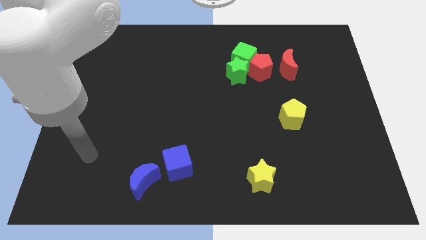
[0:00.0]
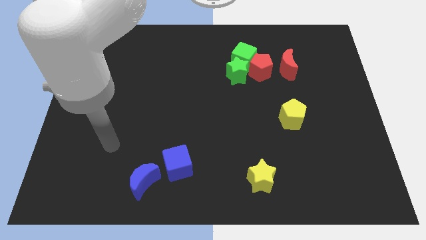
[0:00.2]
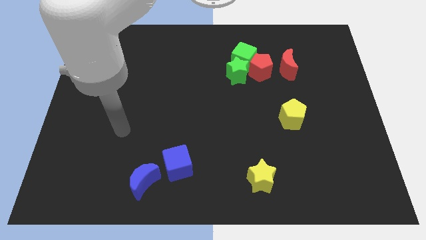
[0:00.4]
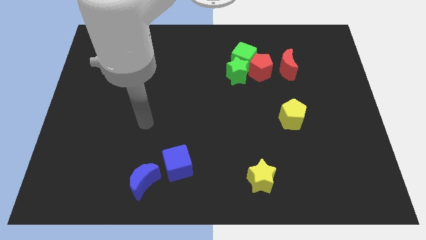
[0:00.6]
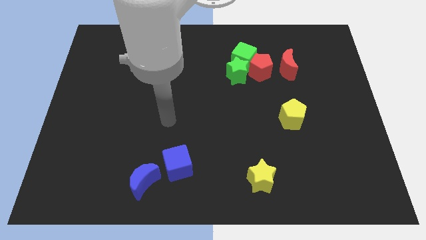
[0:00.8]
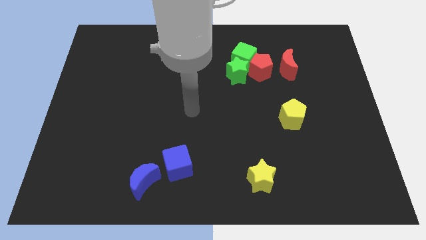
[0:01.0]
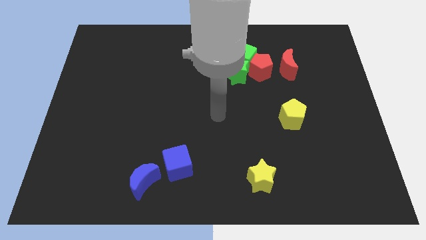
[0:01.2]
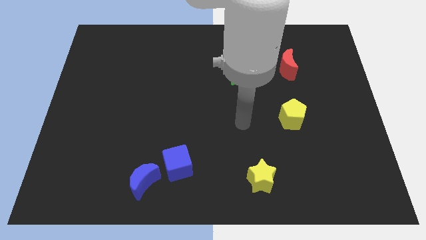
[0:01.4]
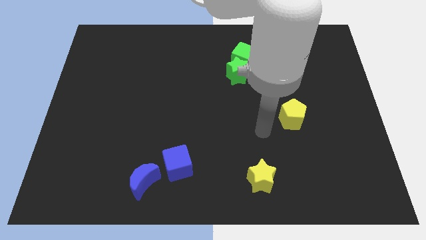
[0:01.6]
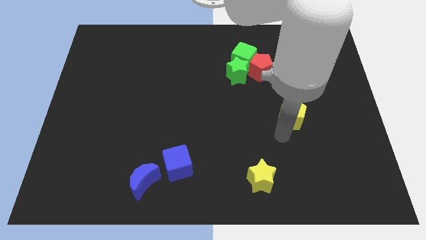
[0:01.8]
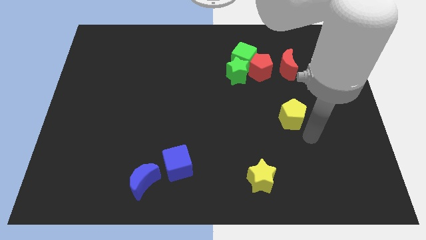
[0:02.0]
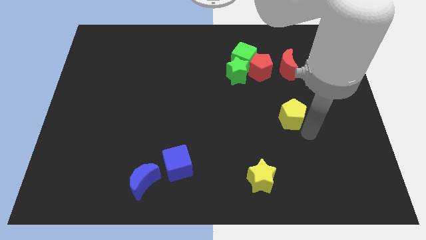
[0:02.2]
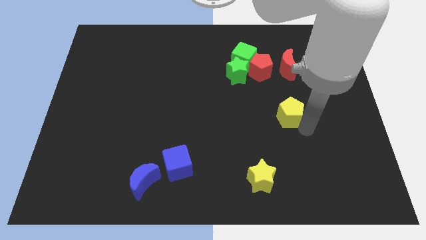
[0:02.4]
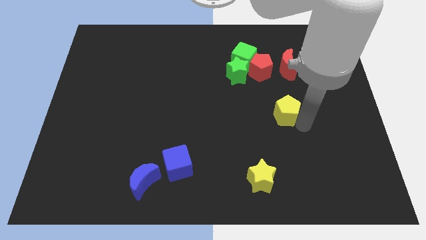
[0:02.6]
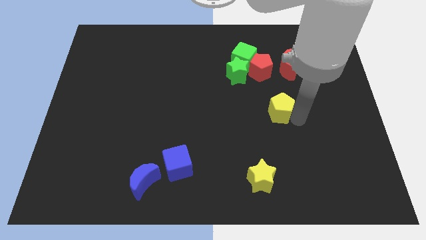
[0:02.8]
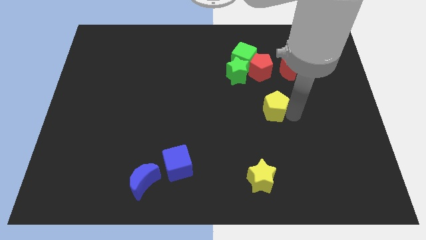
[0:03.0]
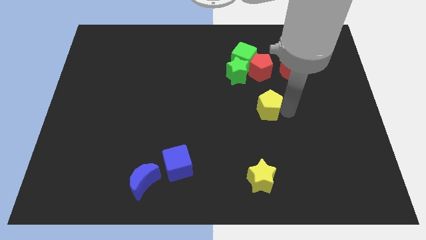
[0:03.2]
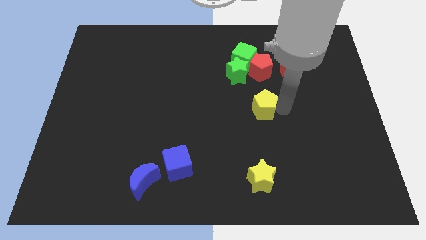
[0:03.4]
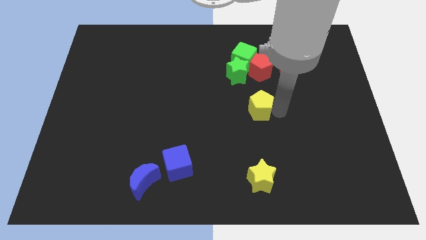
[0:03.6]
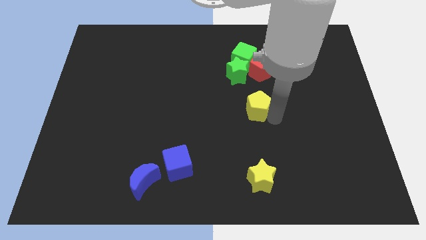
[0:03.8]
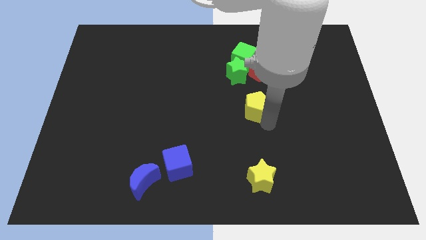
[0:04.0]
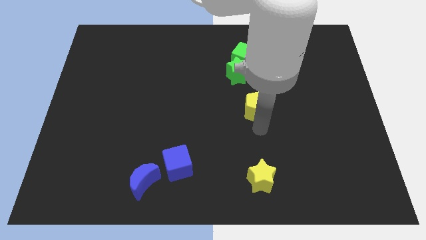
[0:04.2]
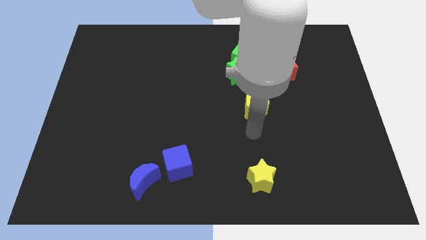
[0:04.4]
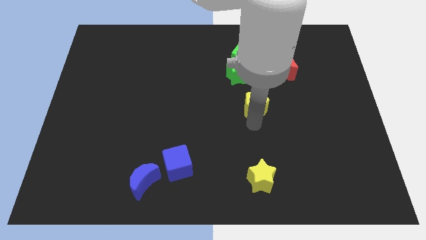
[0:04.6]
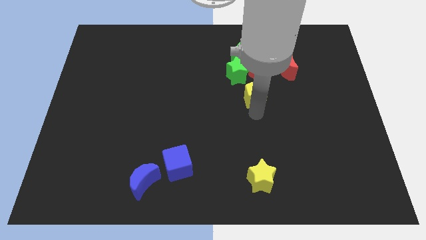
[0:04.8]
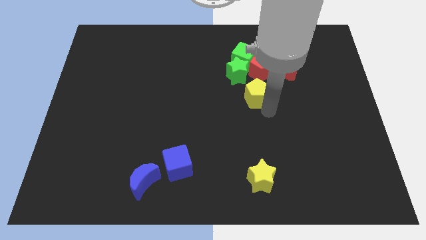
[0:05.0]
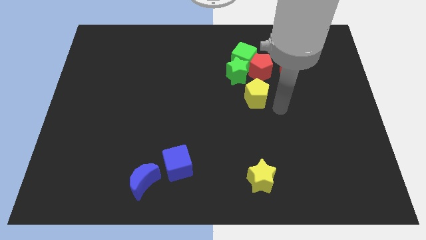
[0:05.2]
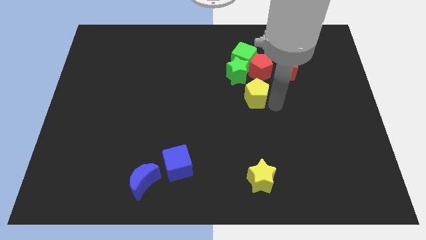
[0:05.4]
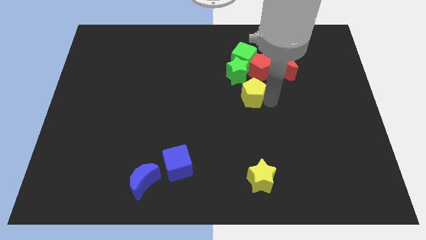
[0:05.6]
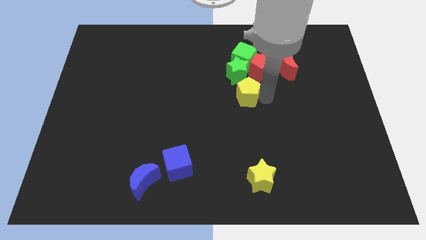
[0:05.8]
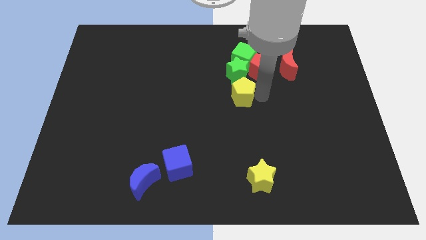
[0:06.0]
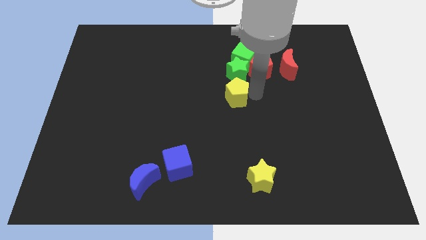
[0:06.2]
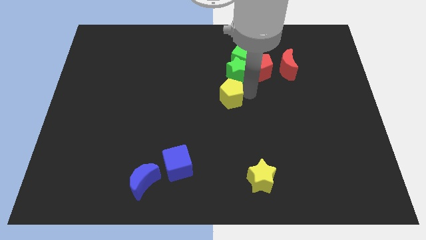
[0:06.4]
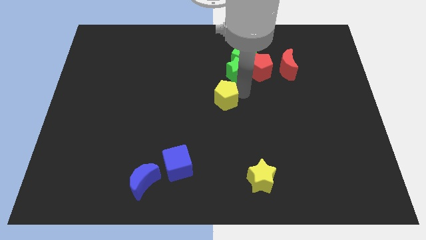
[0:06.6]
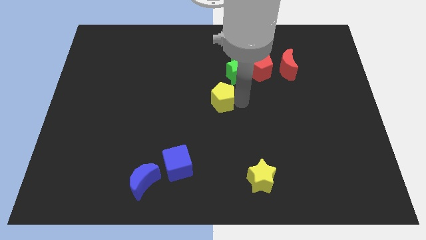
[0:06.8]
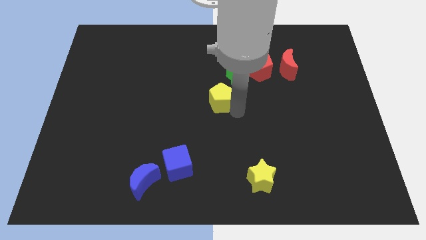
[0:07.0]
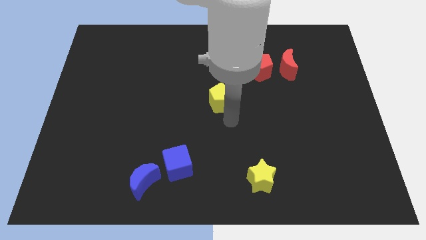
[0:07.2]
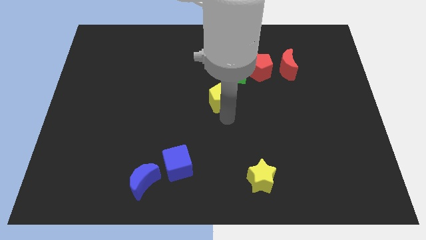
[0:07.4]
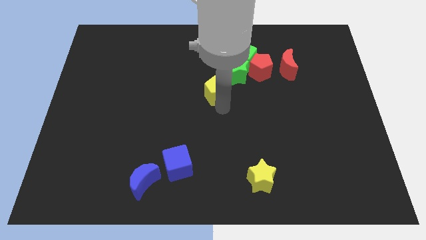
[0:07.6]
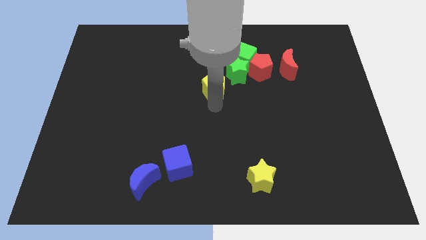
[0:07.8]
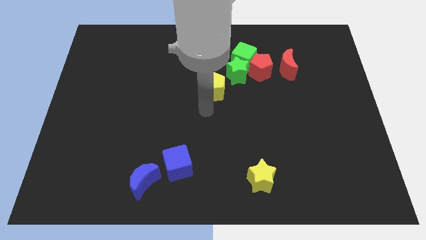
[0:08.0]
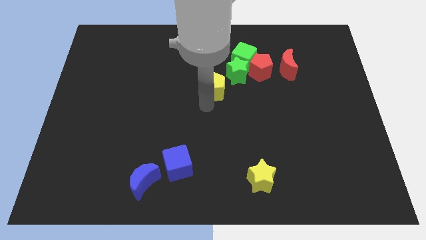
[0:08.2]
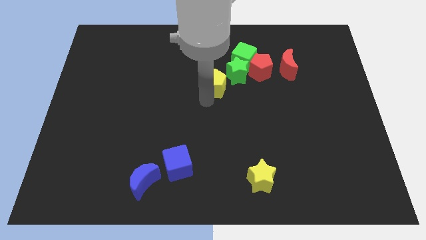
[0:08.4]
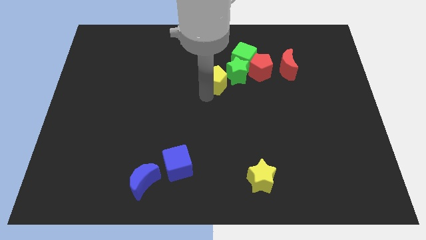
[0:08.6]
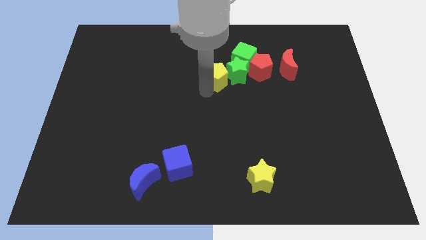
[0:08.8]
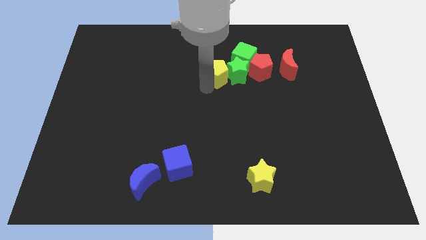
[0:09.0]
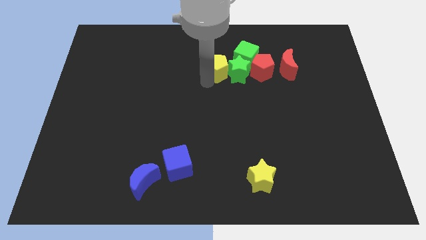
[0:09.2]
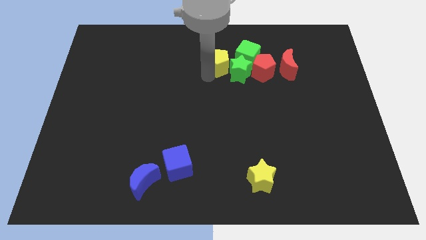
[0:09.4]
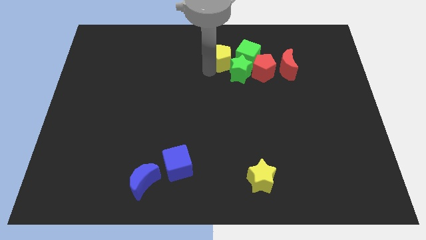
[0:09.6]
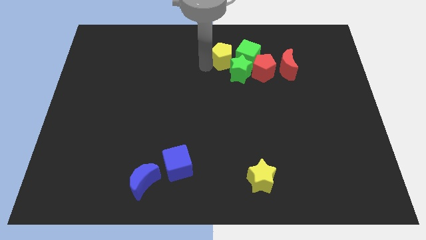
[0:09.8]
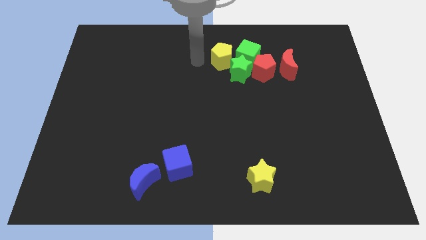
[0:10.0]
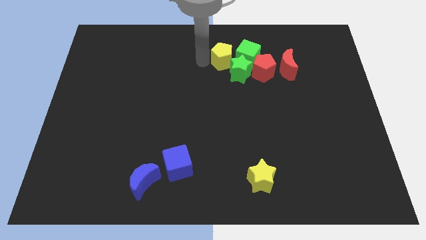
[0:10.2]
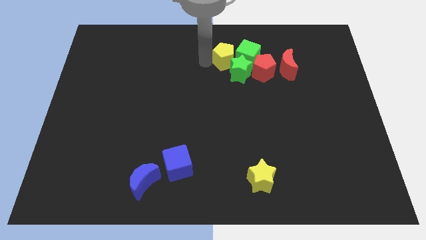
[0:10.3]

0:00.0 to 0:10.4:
push the yellow pentagon to the green cube

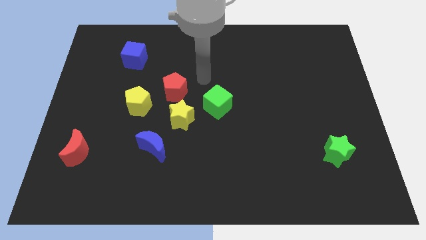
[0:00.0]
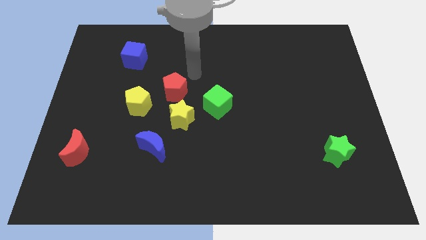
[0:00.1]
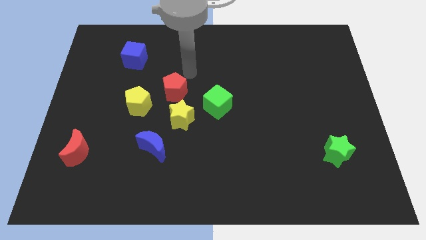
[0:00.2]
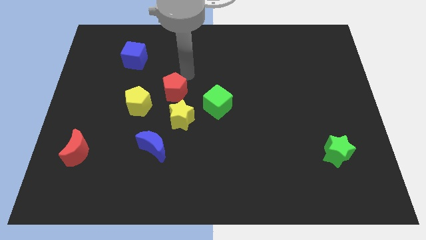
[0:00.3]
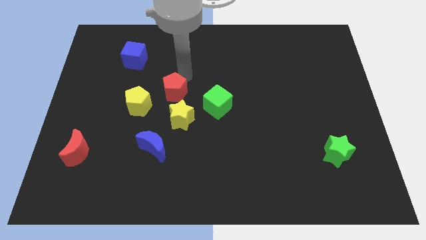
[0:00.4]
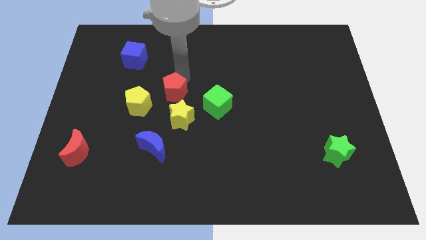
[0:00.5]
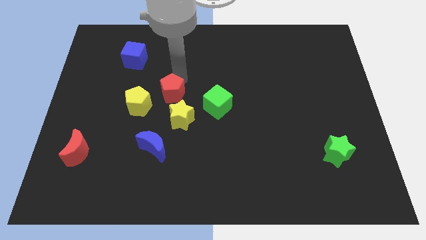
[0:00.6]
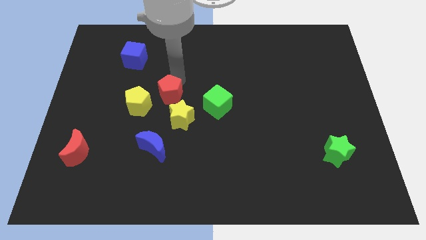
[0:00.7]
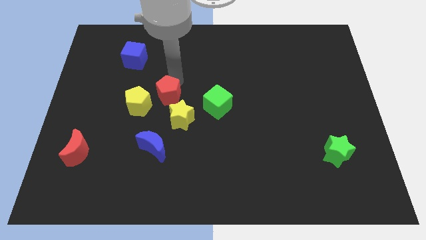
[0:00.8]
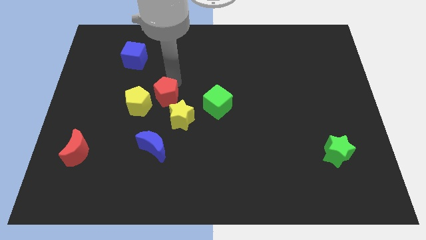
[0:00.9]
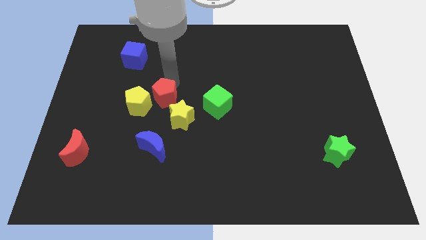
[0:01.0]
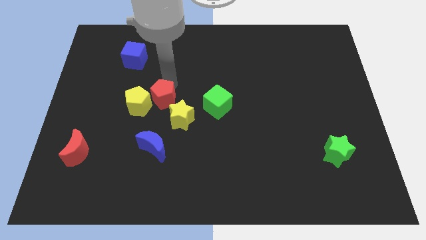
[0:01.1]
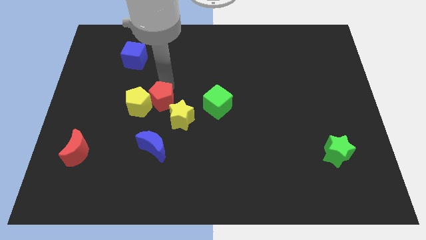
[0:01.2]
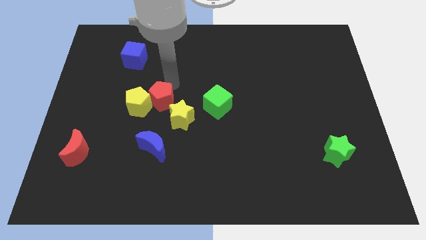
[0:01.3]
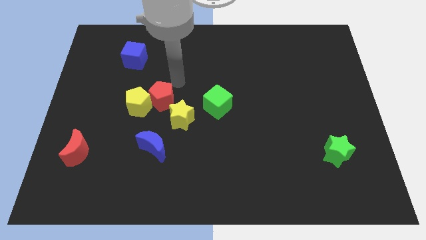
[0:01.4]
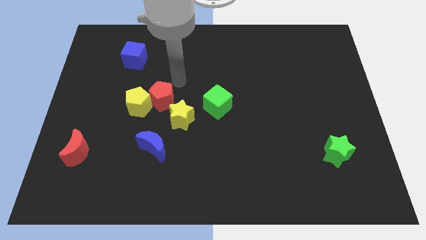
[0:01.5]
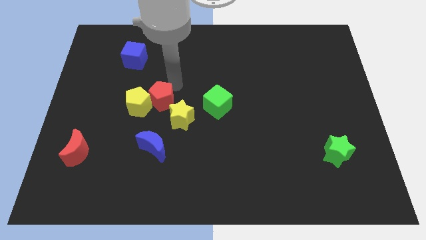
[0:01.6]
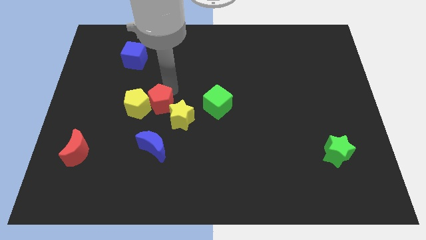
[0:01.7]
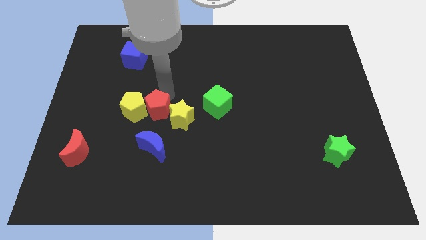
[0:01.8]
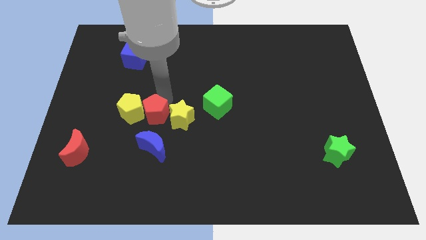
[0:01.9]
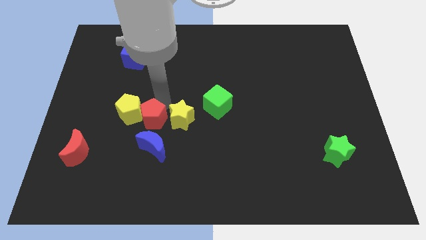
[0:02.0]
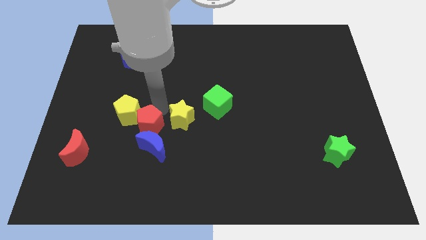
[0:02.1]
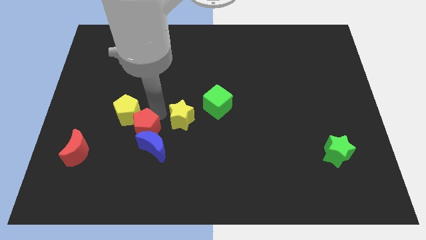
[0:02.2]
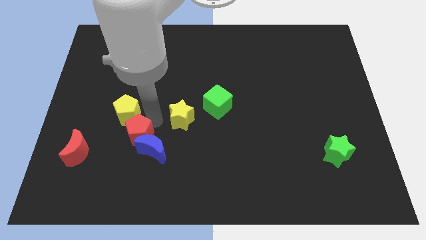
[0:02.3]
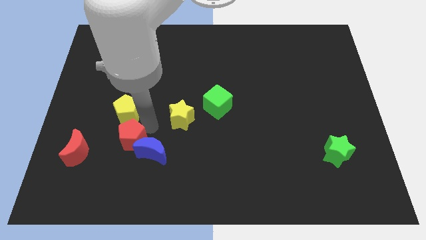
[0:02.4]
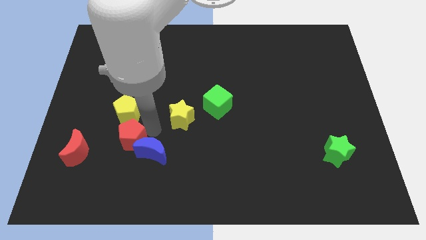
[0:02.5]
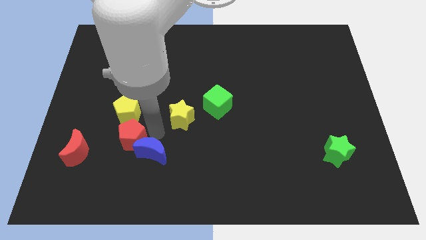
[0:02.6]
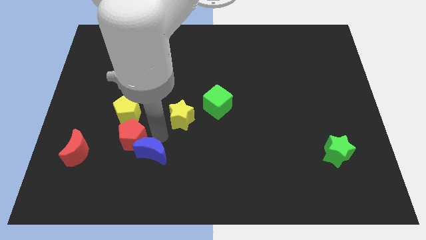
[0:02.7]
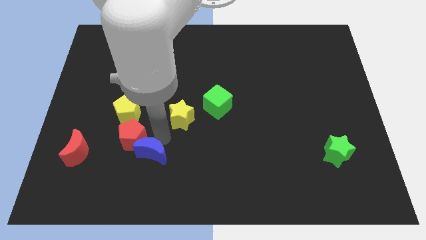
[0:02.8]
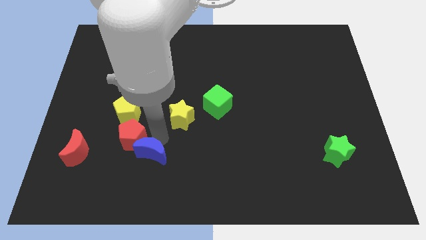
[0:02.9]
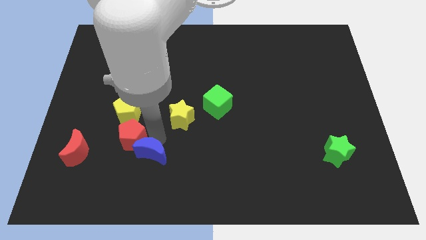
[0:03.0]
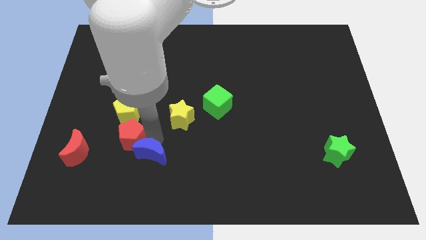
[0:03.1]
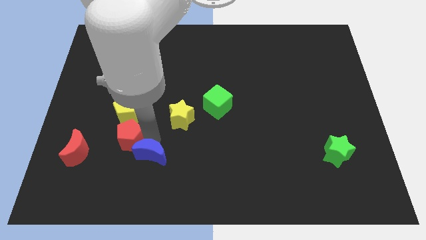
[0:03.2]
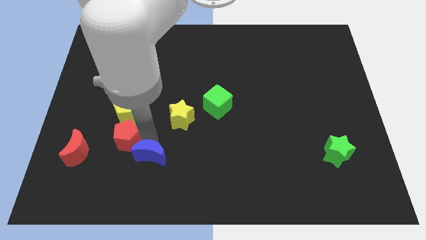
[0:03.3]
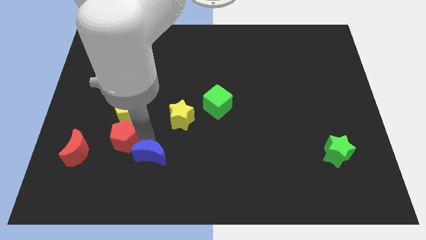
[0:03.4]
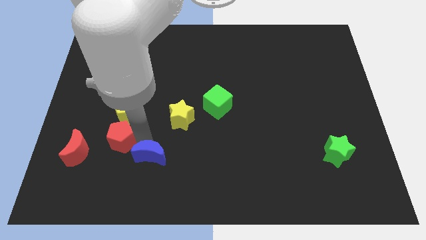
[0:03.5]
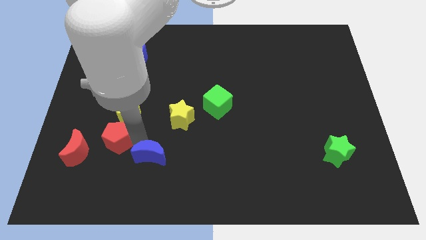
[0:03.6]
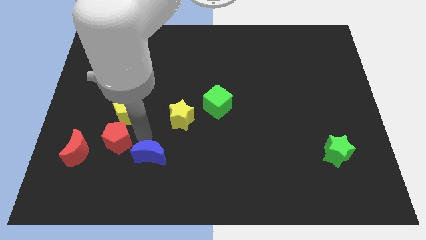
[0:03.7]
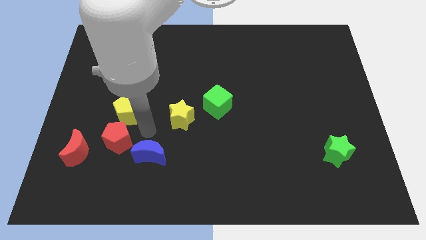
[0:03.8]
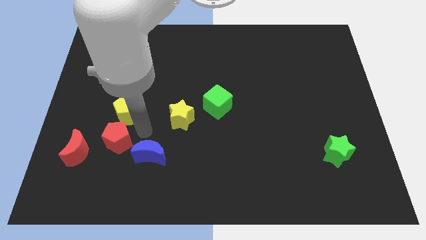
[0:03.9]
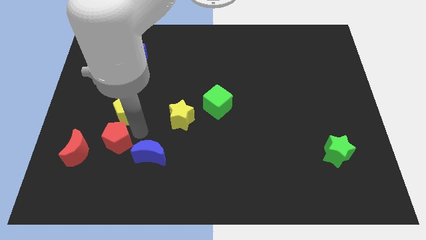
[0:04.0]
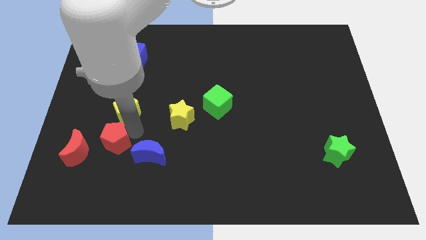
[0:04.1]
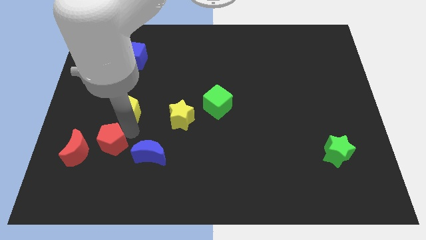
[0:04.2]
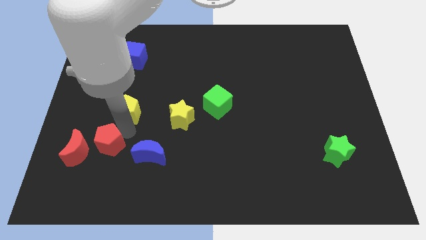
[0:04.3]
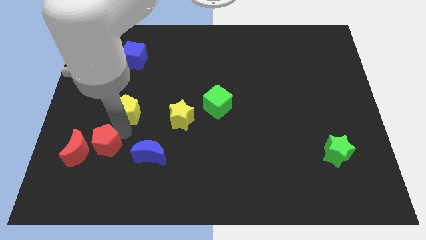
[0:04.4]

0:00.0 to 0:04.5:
put the red pentagon towards the red moon
